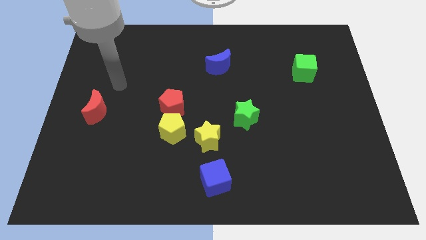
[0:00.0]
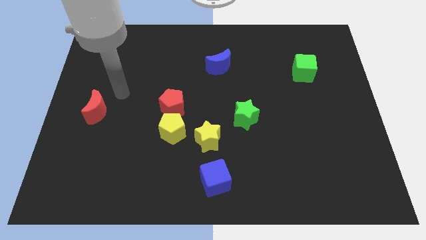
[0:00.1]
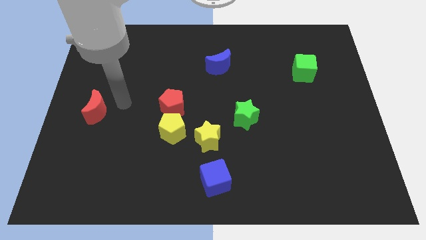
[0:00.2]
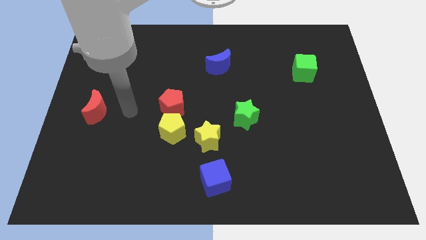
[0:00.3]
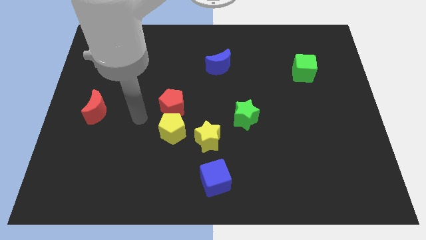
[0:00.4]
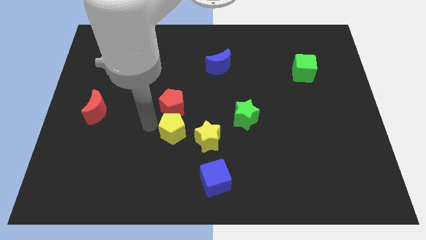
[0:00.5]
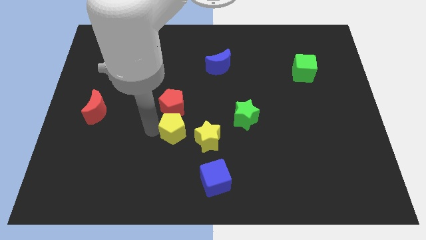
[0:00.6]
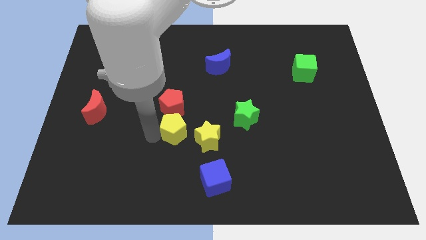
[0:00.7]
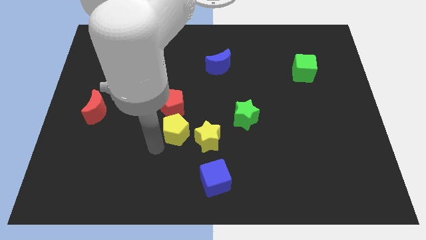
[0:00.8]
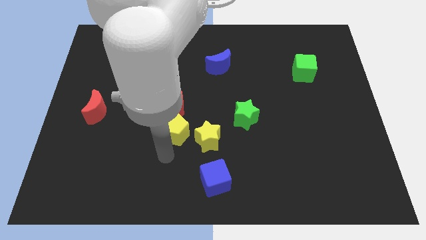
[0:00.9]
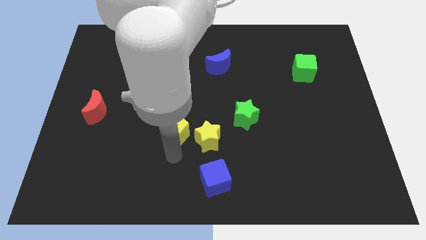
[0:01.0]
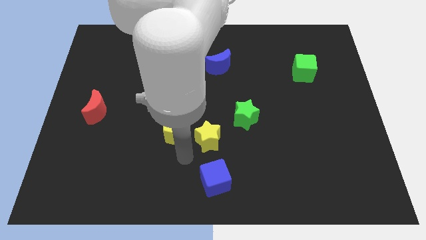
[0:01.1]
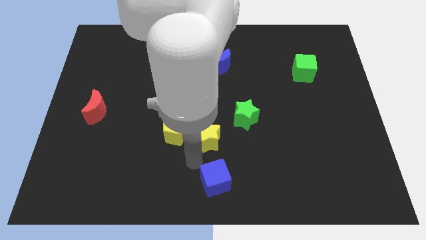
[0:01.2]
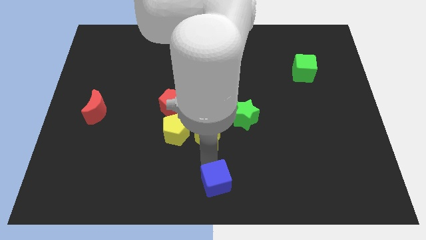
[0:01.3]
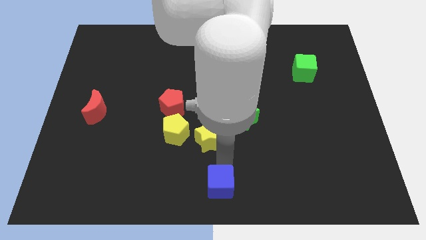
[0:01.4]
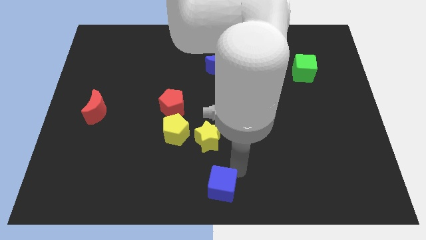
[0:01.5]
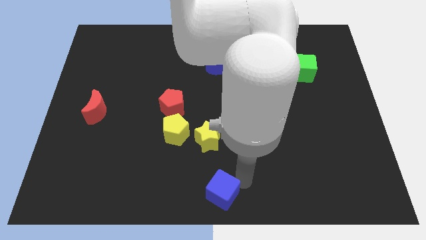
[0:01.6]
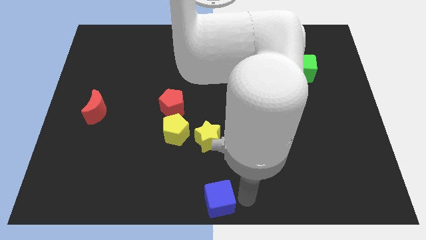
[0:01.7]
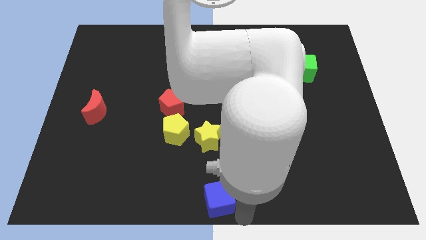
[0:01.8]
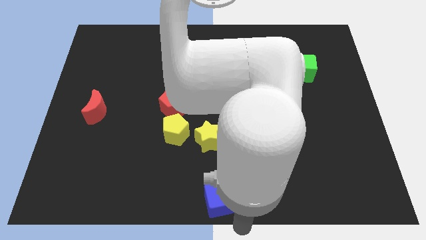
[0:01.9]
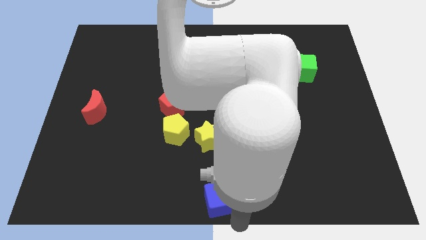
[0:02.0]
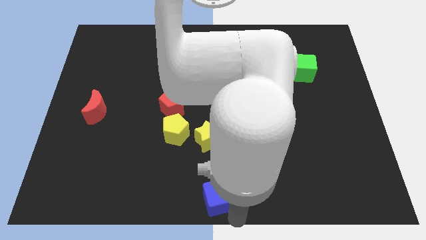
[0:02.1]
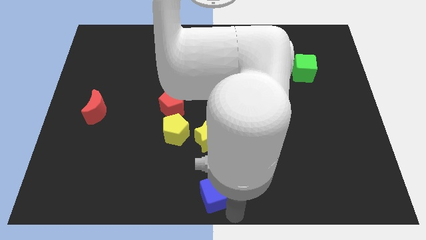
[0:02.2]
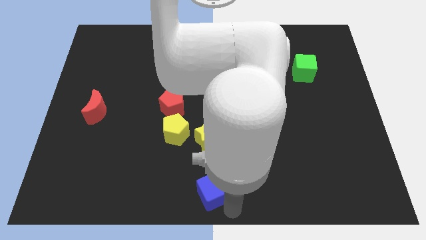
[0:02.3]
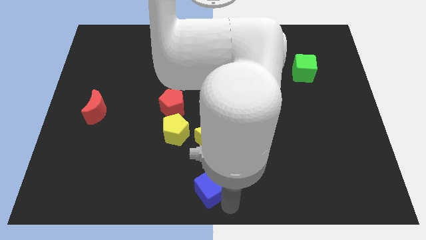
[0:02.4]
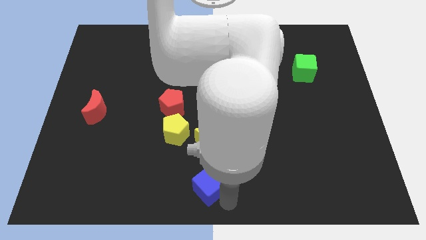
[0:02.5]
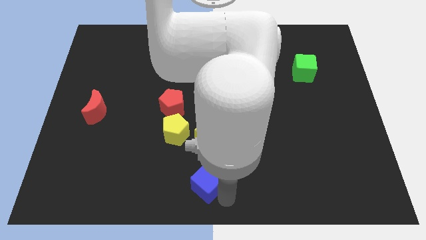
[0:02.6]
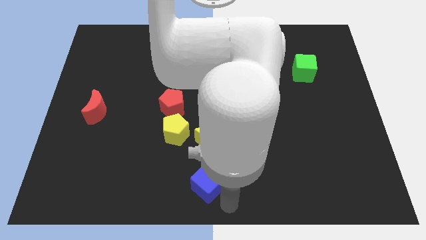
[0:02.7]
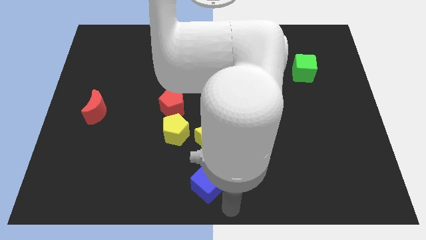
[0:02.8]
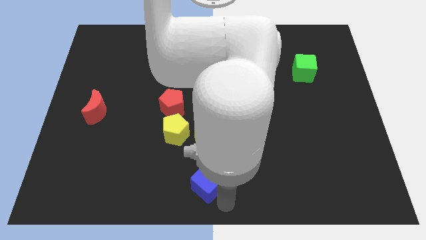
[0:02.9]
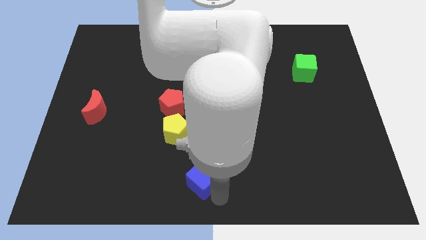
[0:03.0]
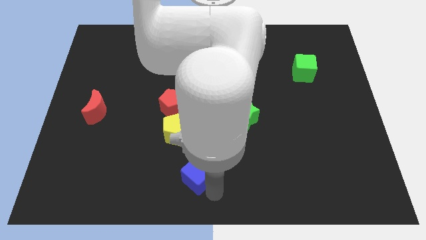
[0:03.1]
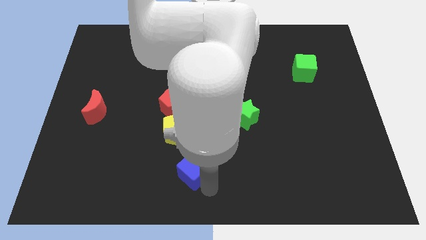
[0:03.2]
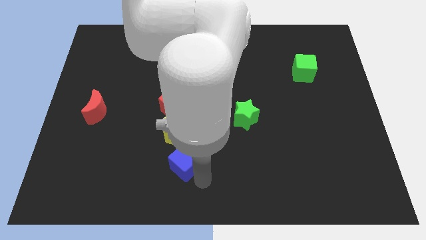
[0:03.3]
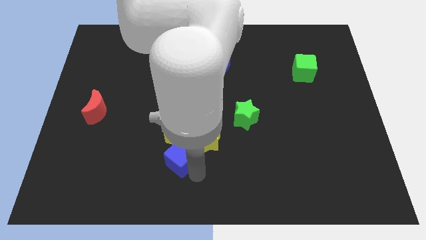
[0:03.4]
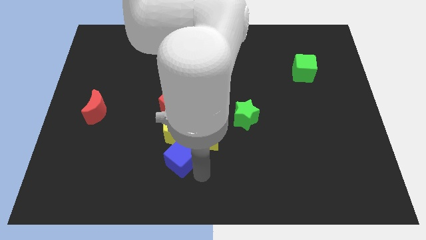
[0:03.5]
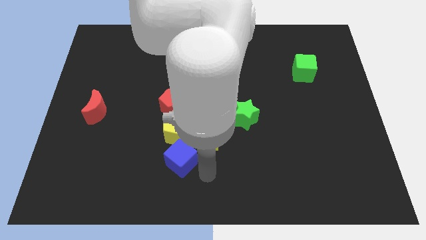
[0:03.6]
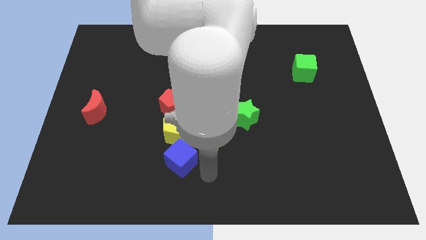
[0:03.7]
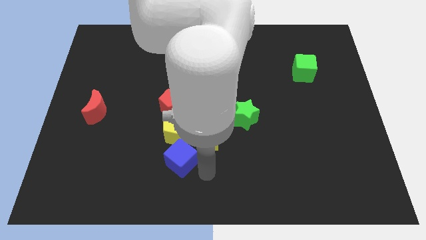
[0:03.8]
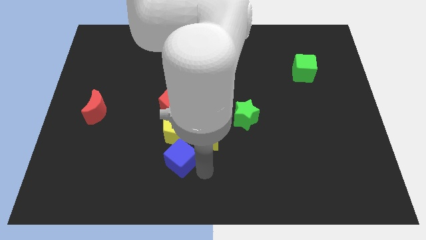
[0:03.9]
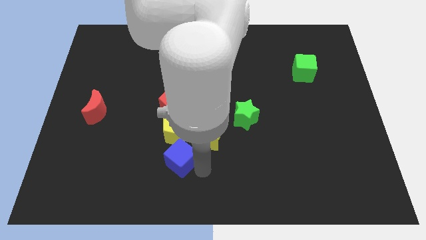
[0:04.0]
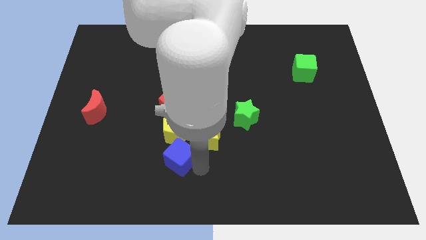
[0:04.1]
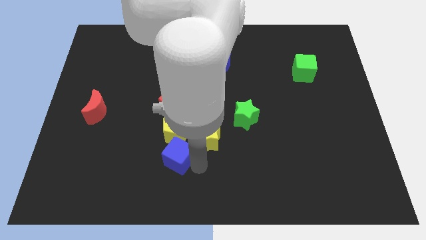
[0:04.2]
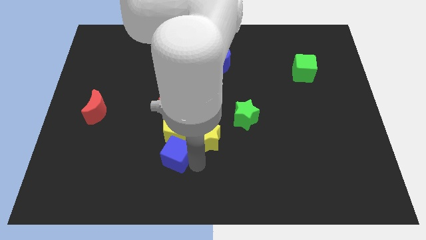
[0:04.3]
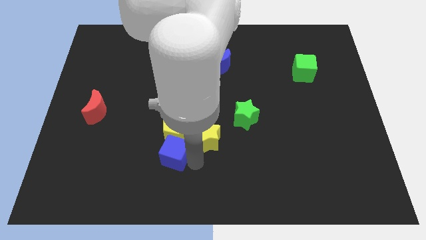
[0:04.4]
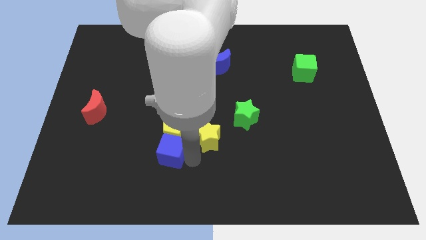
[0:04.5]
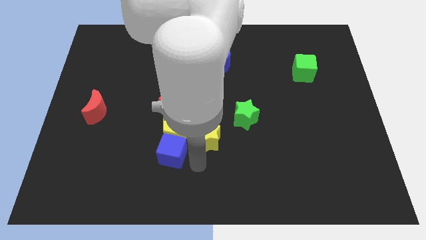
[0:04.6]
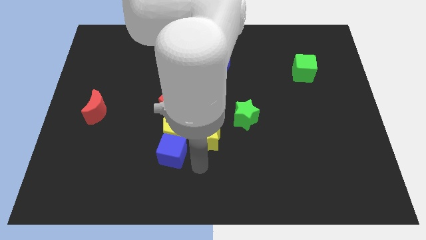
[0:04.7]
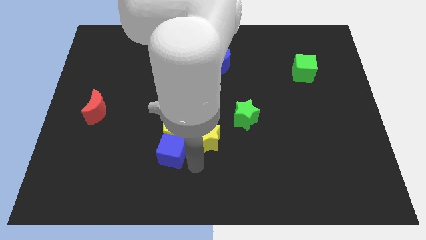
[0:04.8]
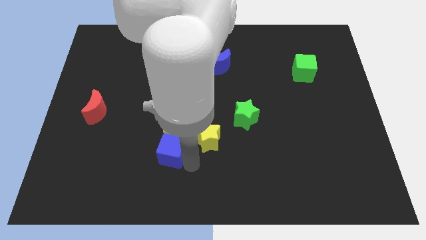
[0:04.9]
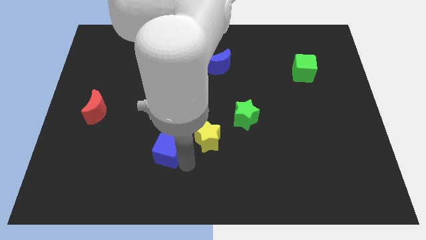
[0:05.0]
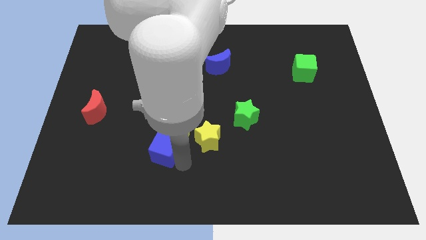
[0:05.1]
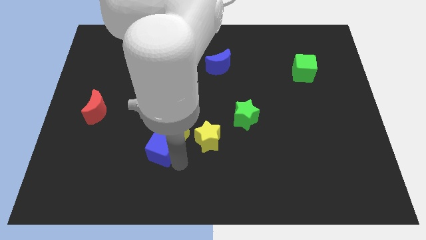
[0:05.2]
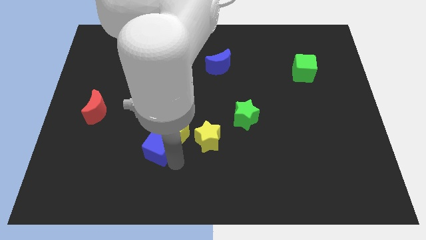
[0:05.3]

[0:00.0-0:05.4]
push the blue cube to the left of the yellow pentagon

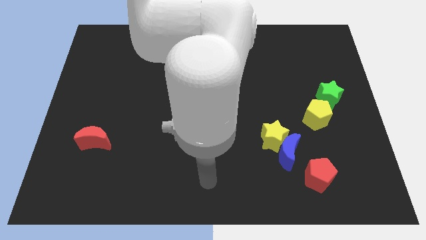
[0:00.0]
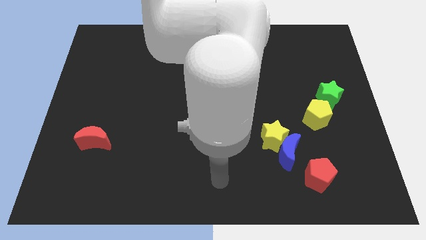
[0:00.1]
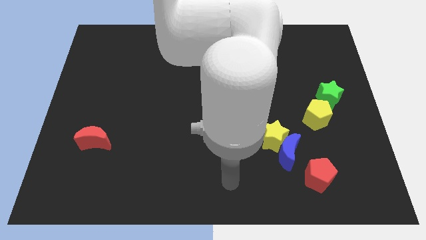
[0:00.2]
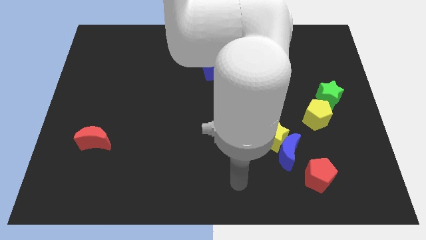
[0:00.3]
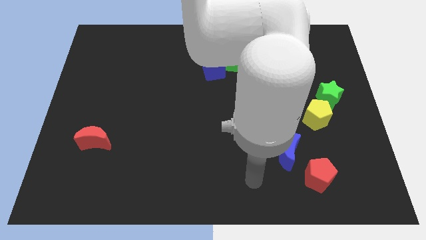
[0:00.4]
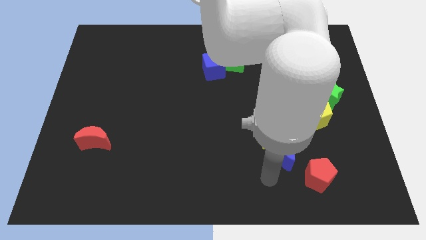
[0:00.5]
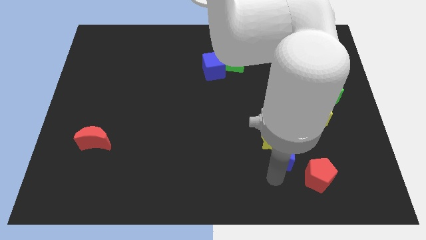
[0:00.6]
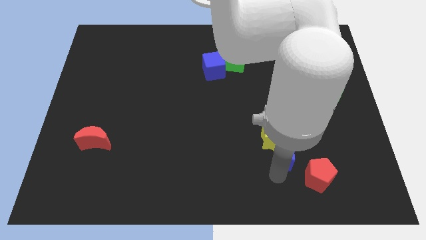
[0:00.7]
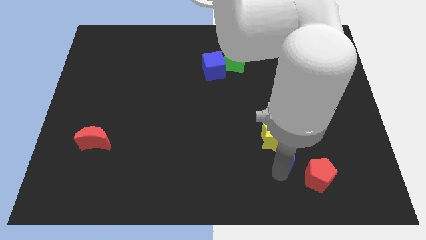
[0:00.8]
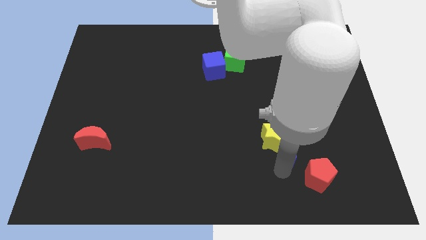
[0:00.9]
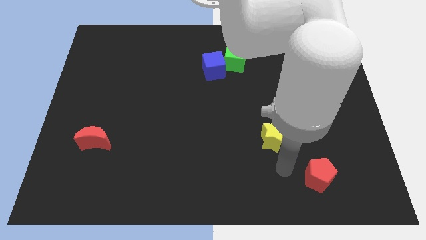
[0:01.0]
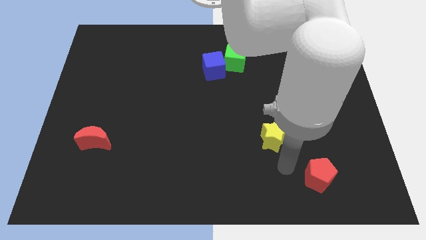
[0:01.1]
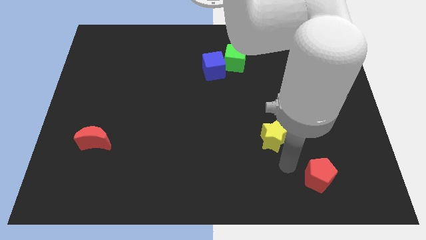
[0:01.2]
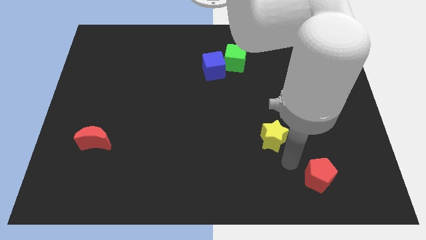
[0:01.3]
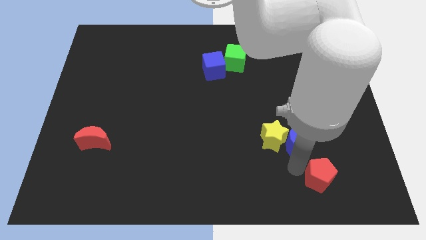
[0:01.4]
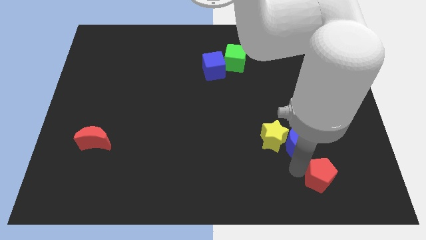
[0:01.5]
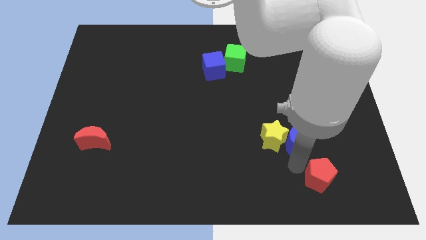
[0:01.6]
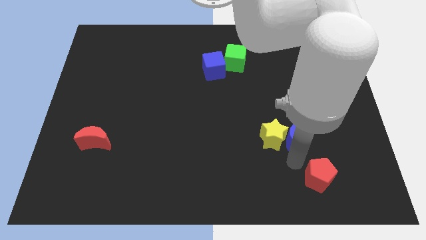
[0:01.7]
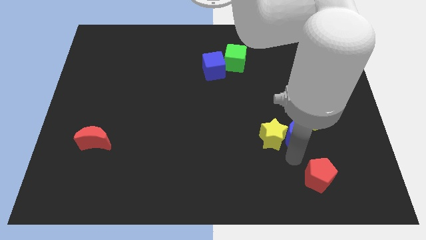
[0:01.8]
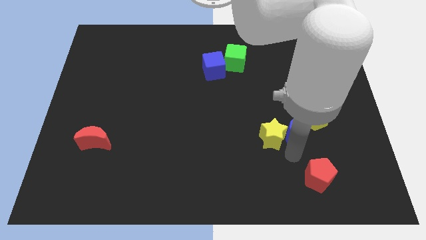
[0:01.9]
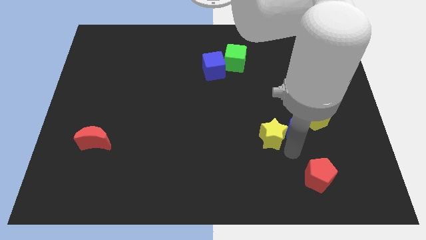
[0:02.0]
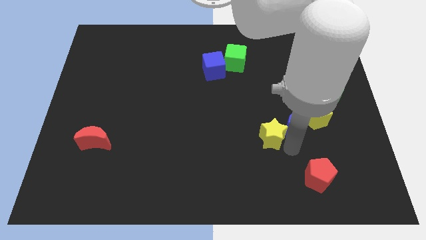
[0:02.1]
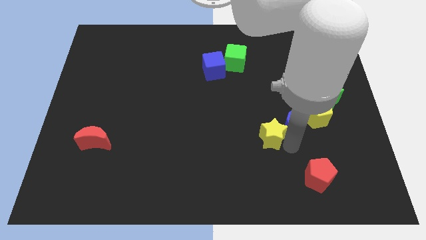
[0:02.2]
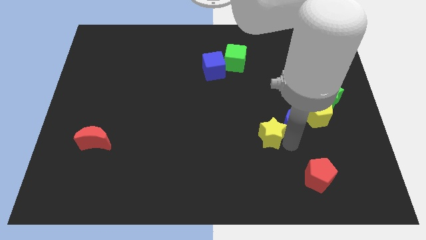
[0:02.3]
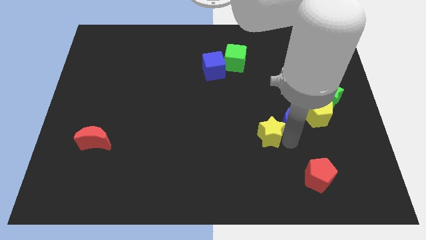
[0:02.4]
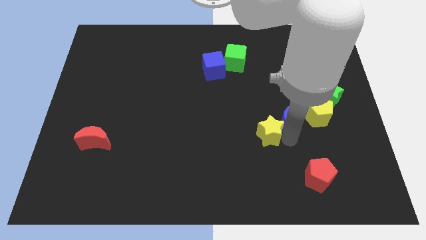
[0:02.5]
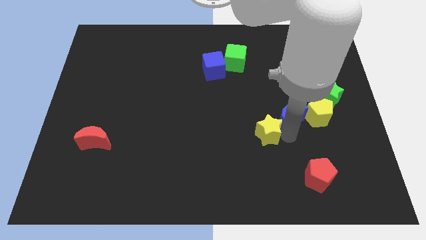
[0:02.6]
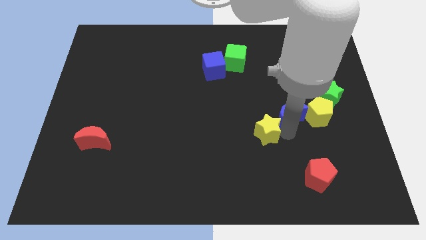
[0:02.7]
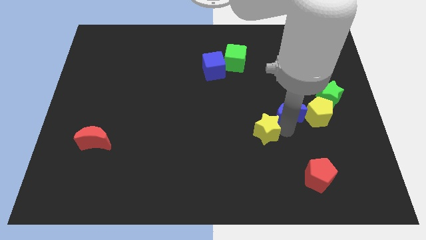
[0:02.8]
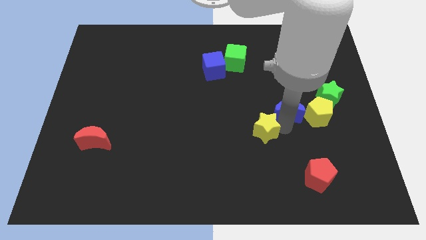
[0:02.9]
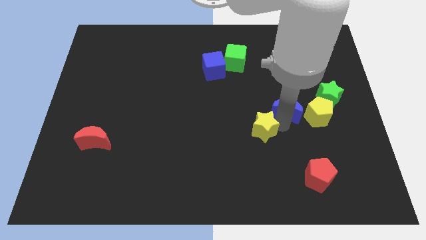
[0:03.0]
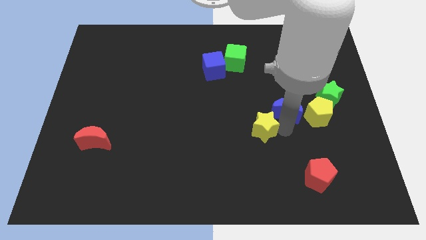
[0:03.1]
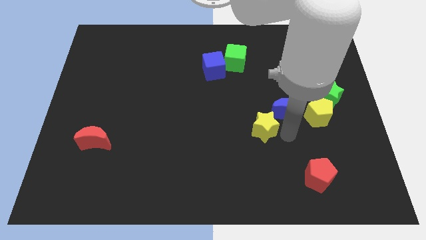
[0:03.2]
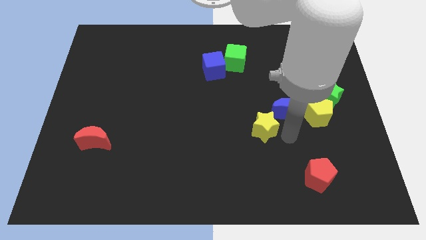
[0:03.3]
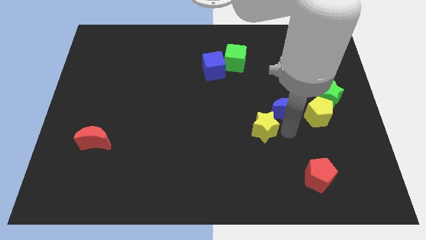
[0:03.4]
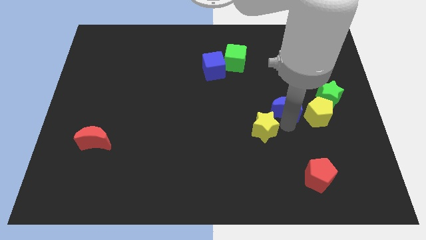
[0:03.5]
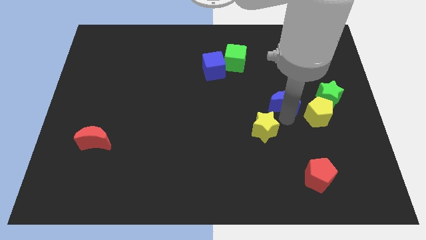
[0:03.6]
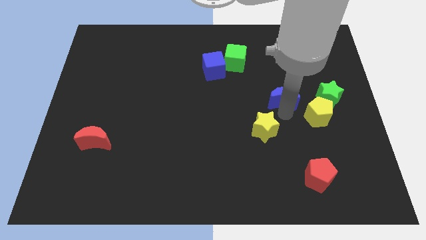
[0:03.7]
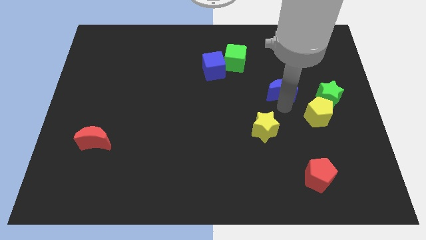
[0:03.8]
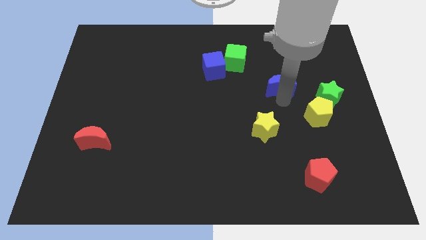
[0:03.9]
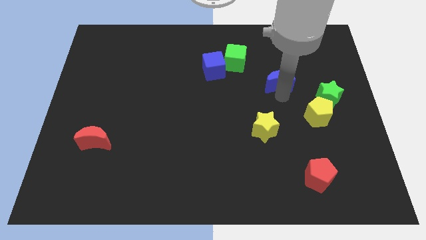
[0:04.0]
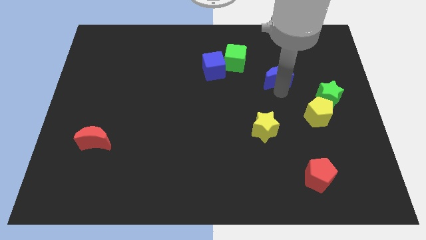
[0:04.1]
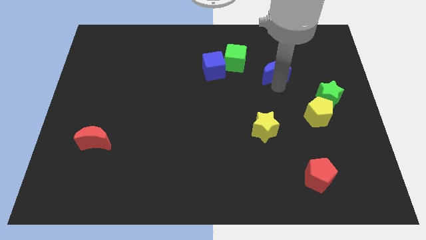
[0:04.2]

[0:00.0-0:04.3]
push the blue moon just right of the green cube
